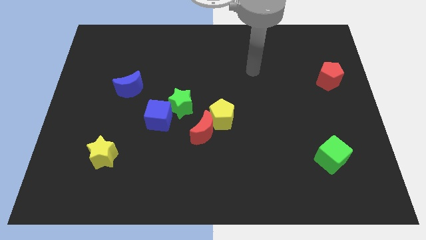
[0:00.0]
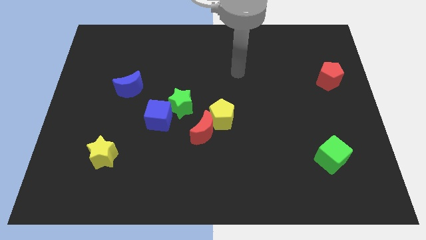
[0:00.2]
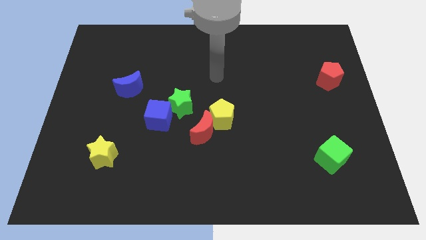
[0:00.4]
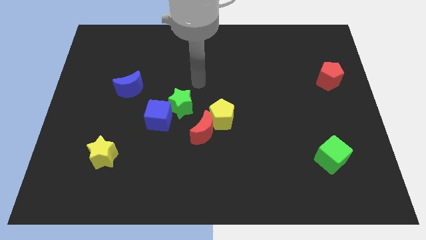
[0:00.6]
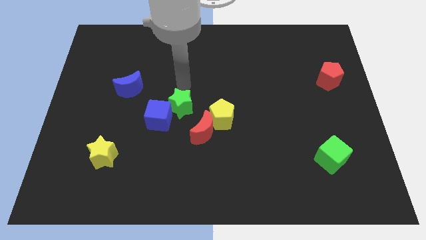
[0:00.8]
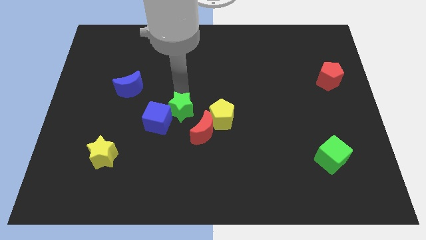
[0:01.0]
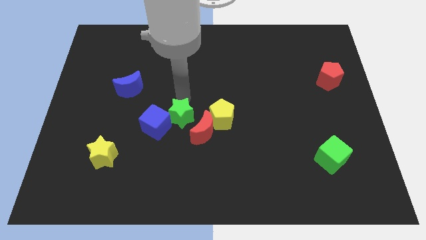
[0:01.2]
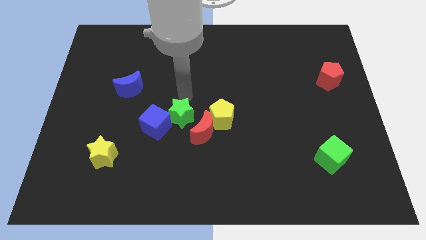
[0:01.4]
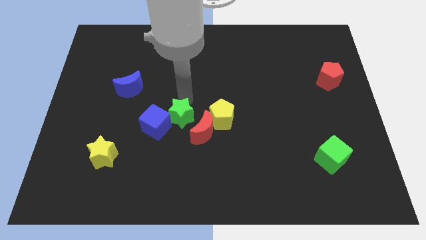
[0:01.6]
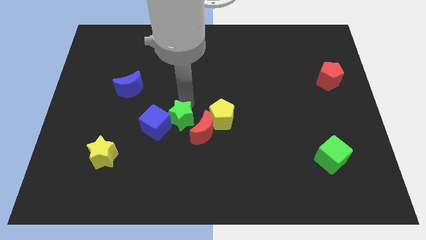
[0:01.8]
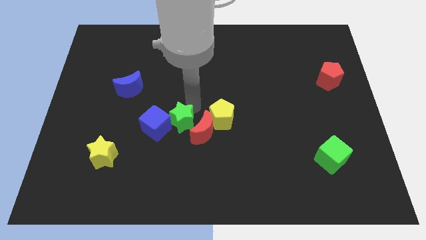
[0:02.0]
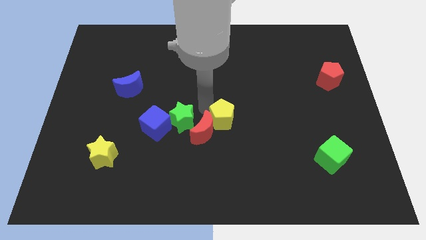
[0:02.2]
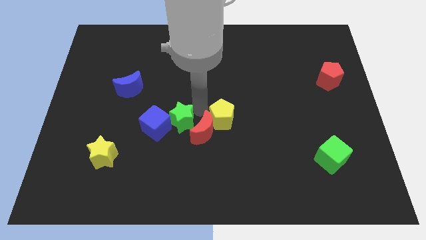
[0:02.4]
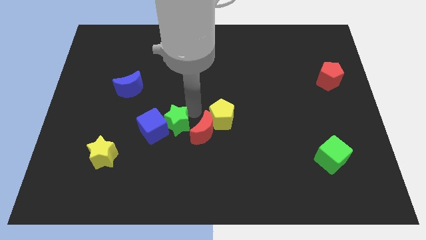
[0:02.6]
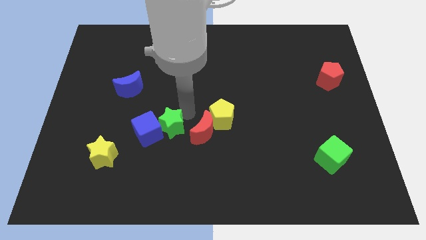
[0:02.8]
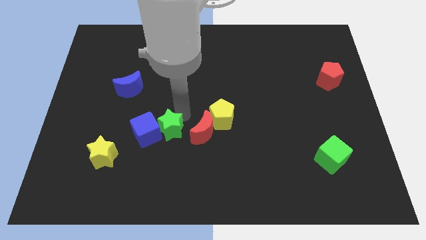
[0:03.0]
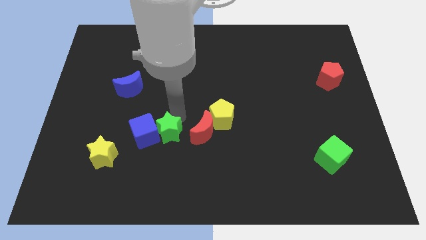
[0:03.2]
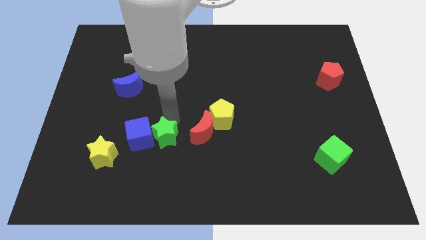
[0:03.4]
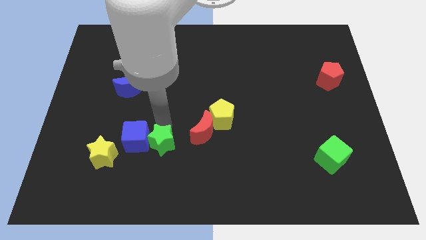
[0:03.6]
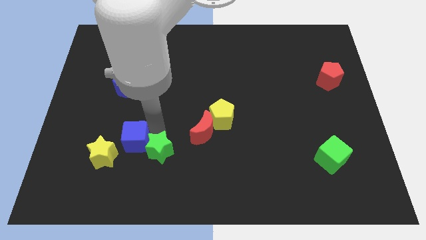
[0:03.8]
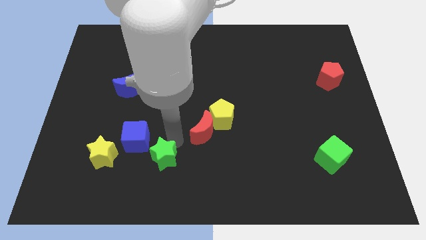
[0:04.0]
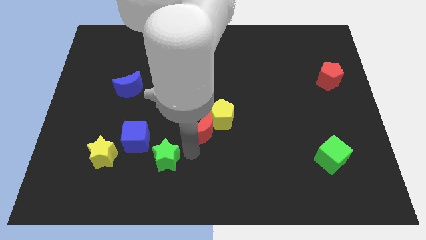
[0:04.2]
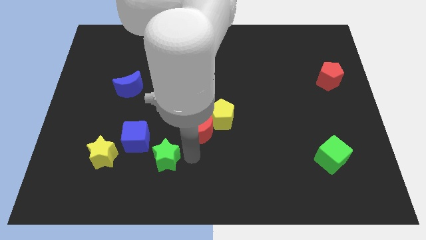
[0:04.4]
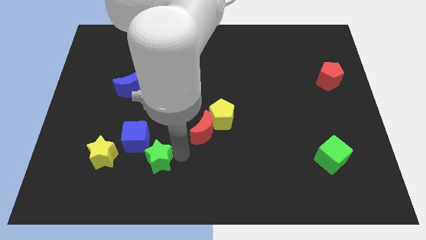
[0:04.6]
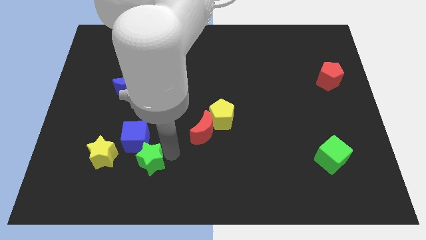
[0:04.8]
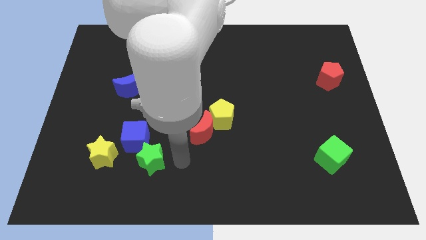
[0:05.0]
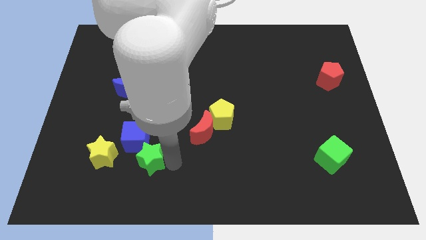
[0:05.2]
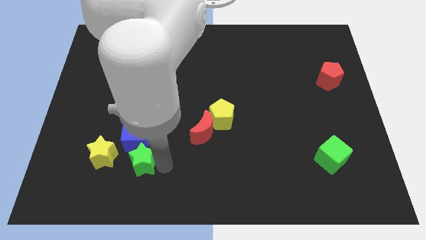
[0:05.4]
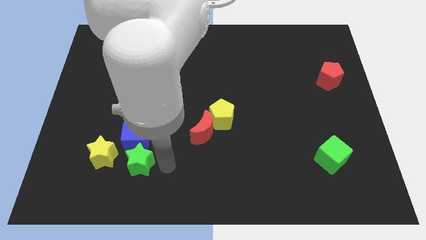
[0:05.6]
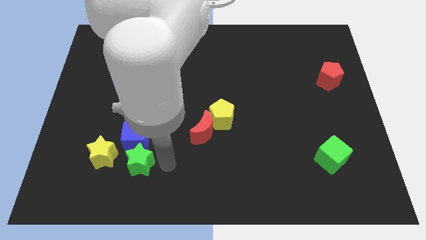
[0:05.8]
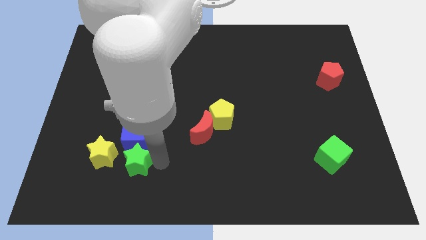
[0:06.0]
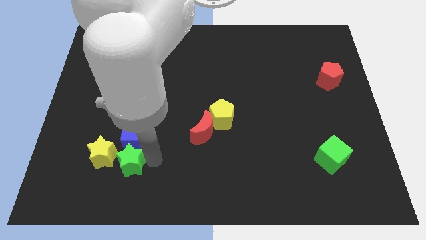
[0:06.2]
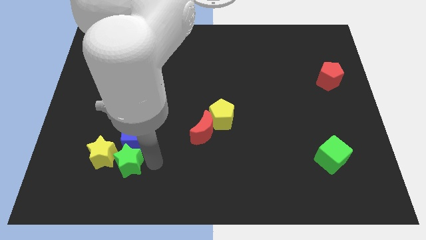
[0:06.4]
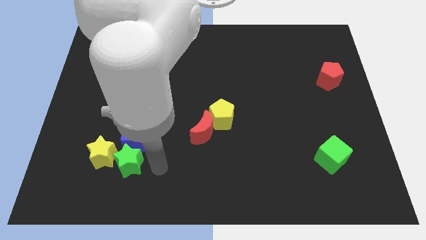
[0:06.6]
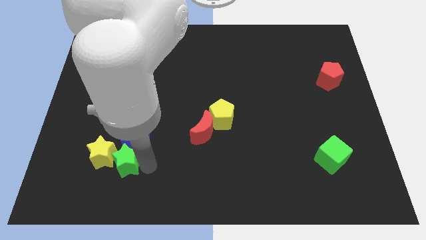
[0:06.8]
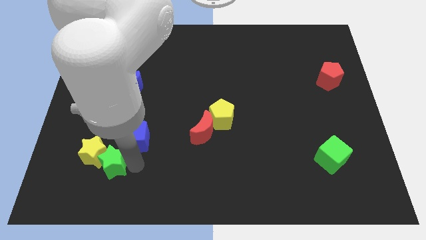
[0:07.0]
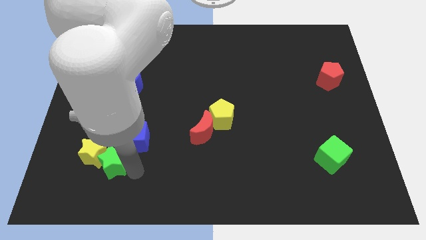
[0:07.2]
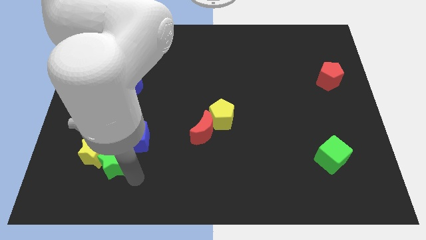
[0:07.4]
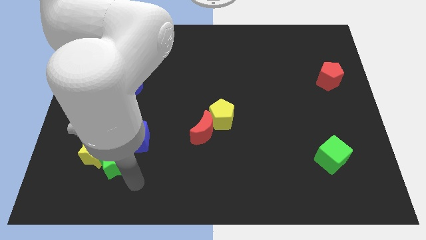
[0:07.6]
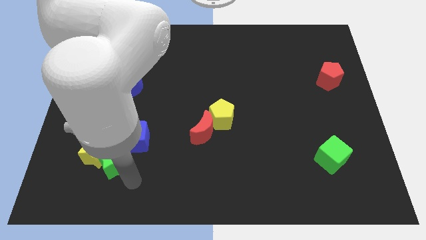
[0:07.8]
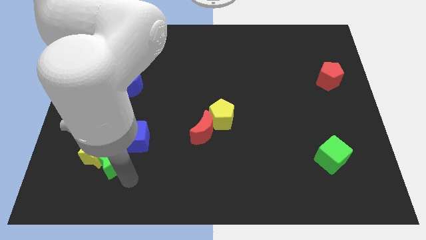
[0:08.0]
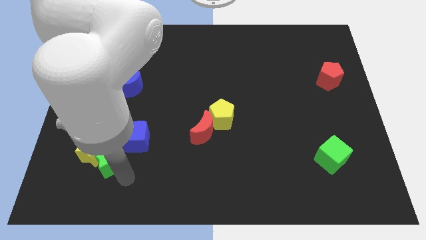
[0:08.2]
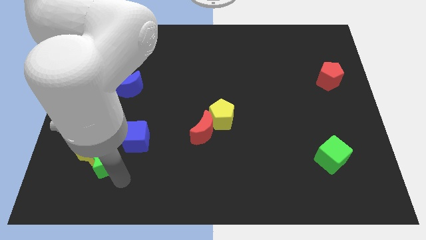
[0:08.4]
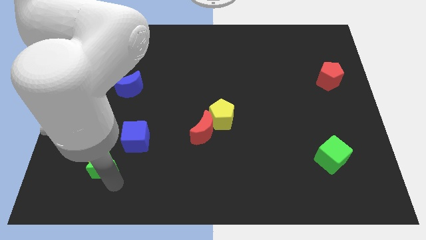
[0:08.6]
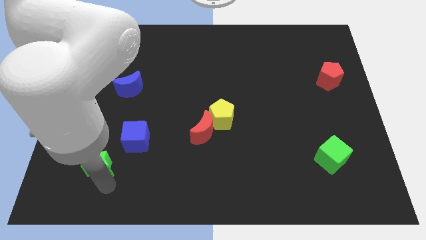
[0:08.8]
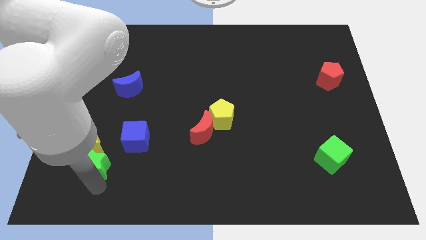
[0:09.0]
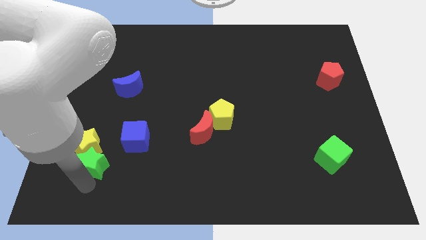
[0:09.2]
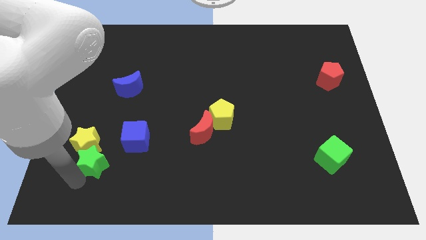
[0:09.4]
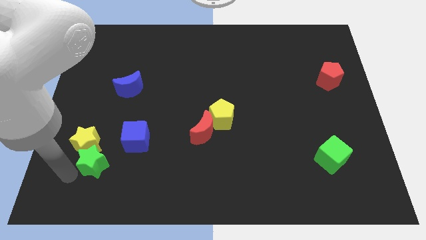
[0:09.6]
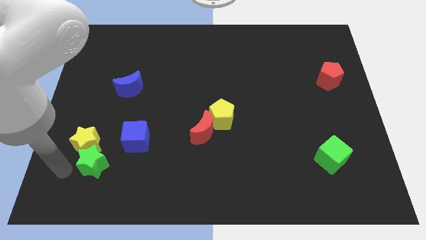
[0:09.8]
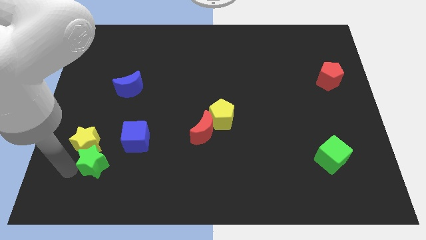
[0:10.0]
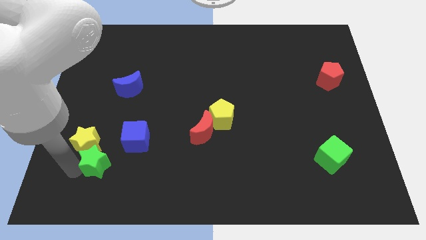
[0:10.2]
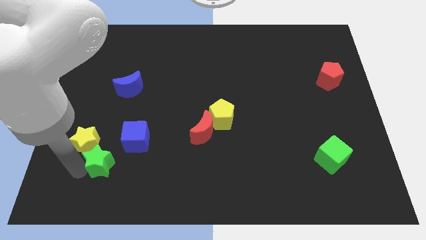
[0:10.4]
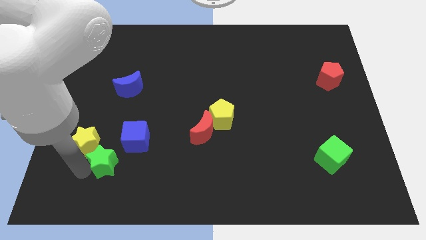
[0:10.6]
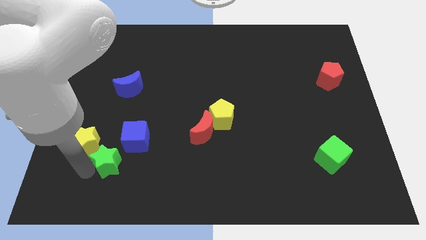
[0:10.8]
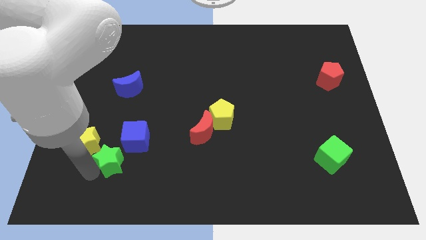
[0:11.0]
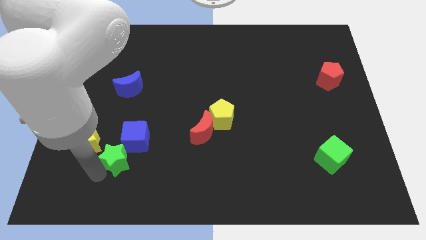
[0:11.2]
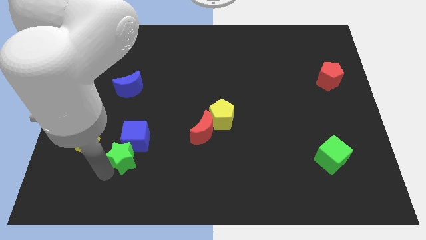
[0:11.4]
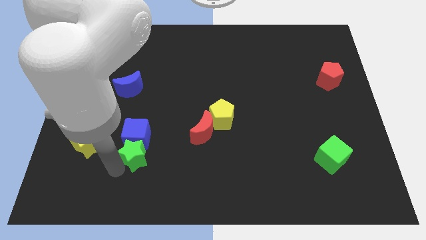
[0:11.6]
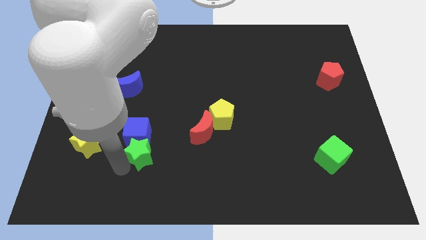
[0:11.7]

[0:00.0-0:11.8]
push the green star diagonally down and to the left of the blue cube

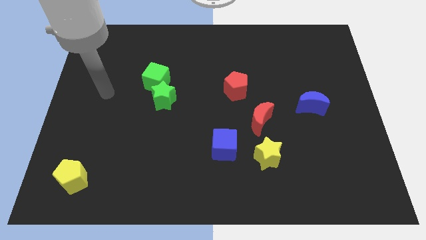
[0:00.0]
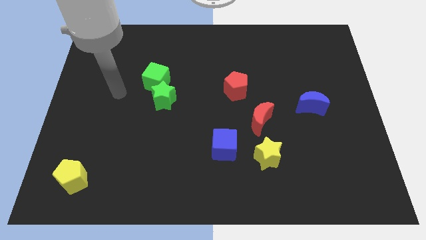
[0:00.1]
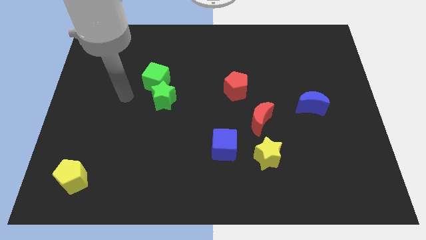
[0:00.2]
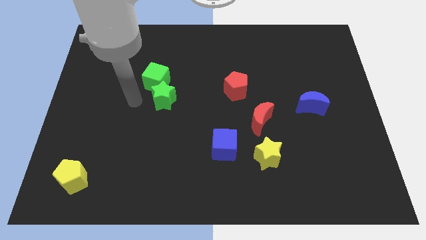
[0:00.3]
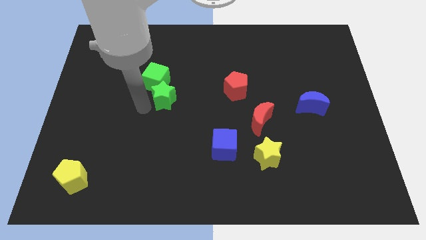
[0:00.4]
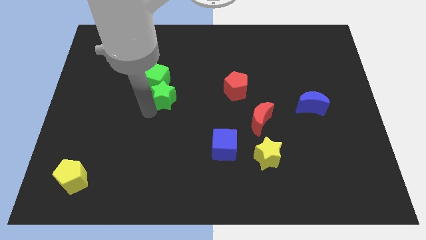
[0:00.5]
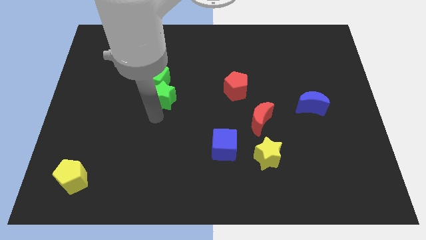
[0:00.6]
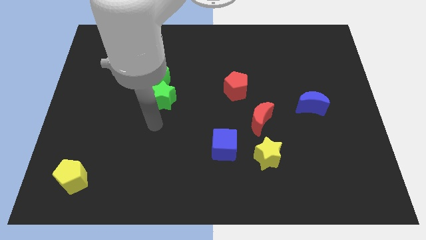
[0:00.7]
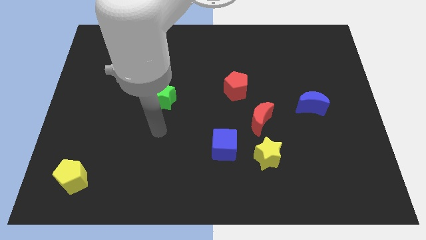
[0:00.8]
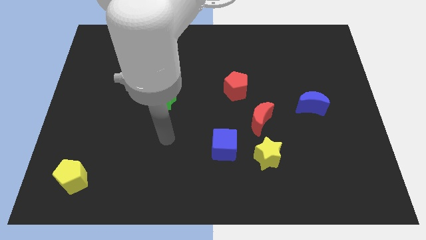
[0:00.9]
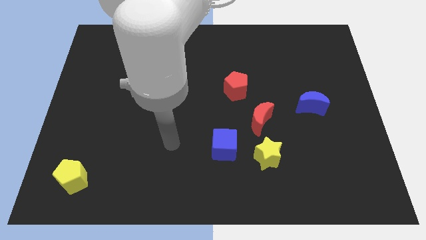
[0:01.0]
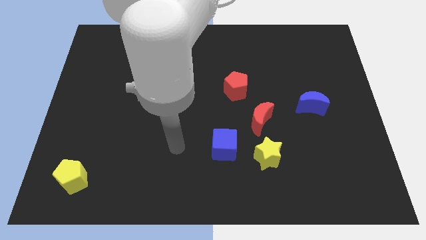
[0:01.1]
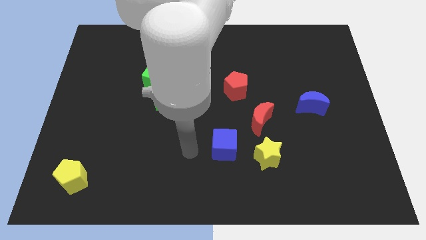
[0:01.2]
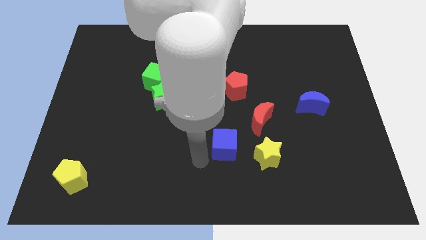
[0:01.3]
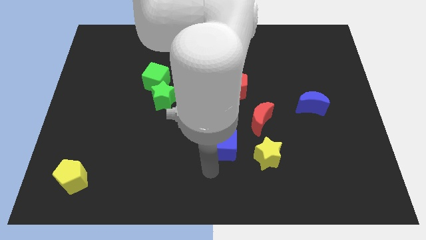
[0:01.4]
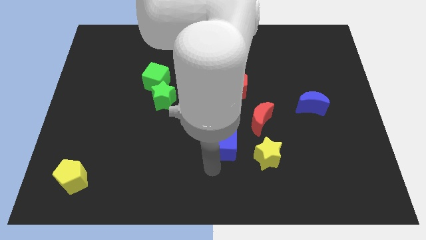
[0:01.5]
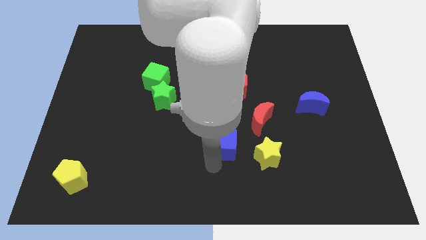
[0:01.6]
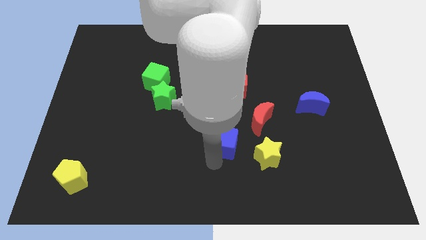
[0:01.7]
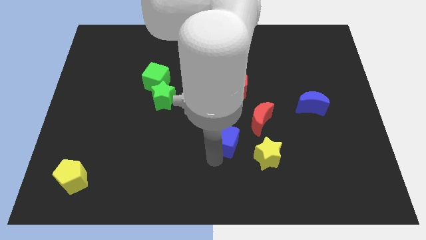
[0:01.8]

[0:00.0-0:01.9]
push the blue cube to the bottom of the red pentagon
